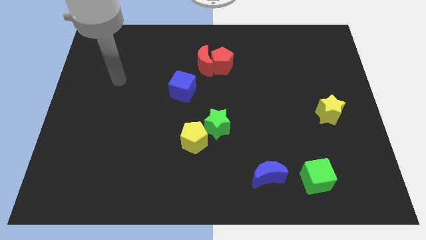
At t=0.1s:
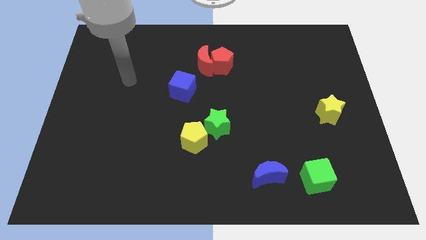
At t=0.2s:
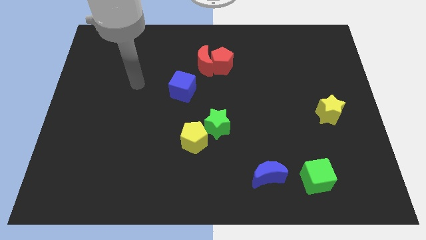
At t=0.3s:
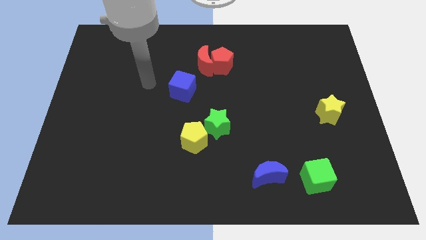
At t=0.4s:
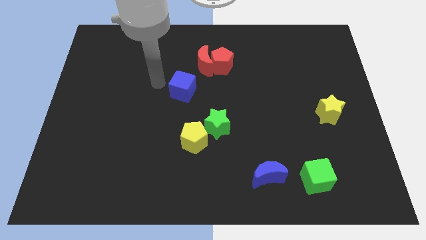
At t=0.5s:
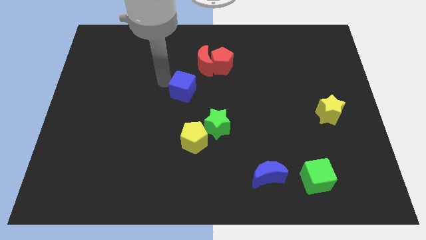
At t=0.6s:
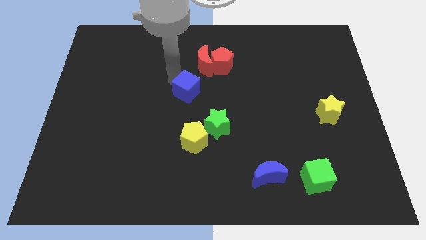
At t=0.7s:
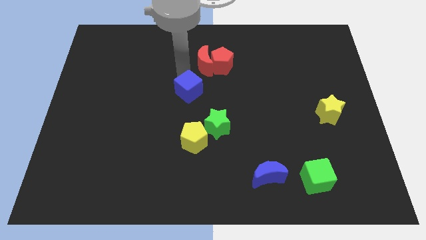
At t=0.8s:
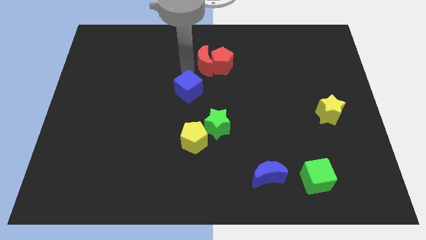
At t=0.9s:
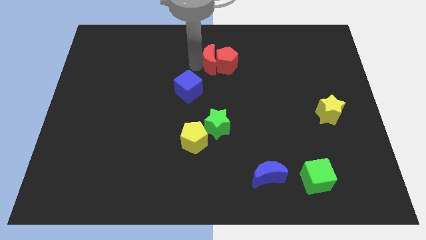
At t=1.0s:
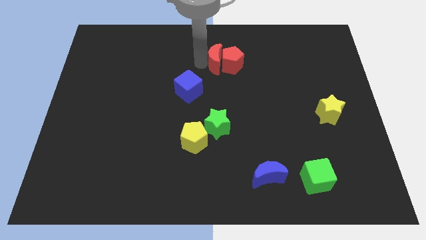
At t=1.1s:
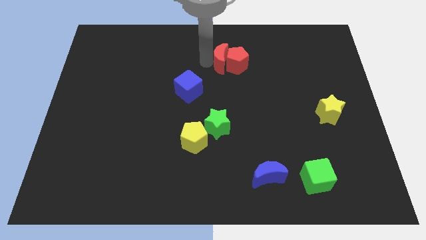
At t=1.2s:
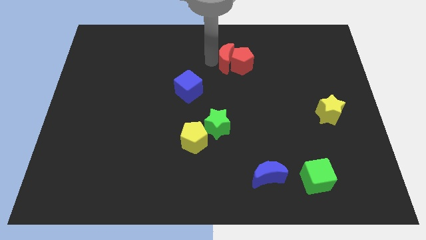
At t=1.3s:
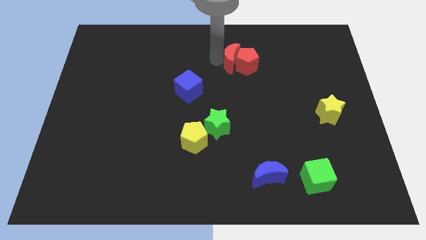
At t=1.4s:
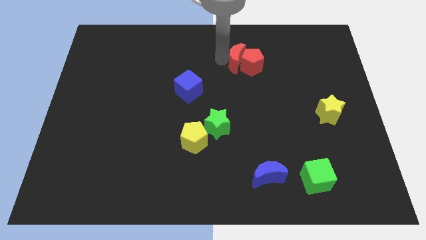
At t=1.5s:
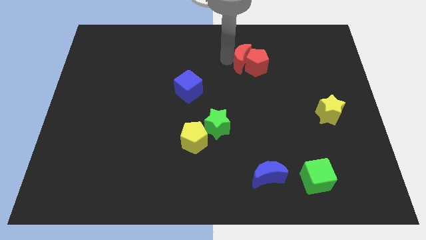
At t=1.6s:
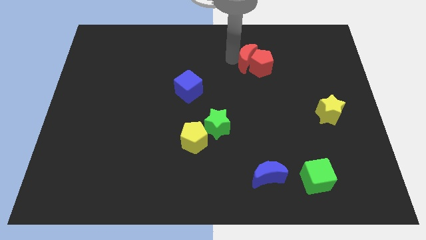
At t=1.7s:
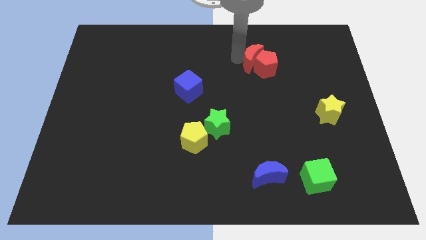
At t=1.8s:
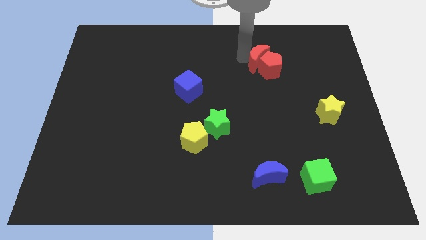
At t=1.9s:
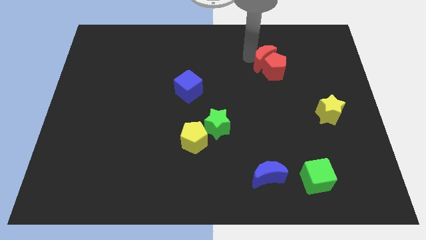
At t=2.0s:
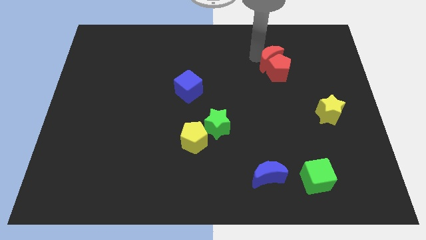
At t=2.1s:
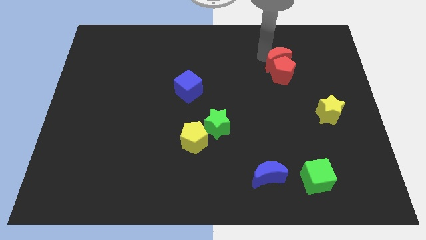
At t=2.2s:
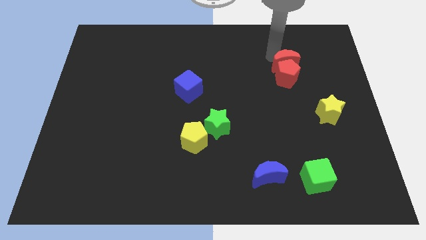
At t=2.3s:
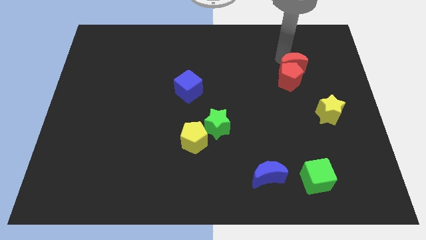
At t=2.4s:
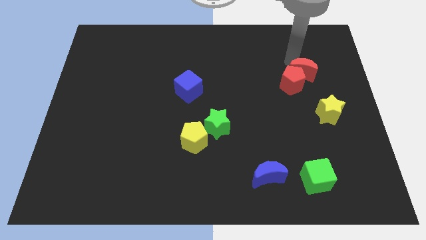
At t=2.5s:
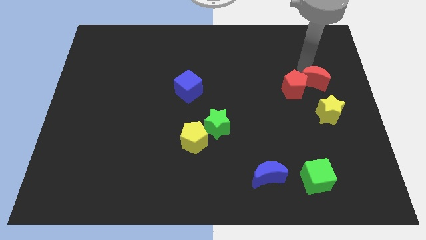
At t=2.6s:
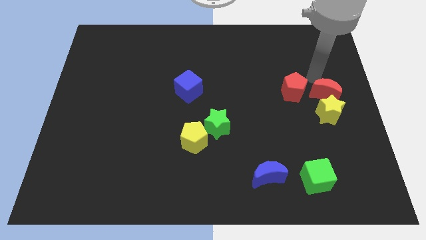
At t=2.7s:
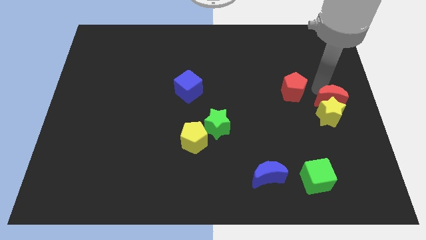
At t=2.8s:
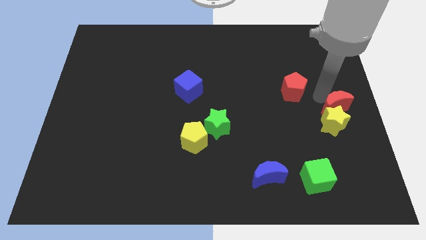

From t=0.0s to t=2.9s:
separate the red pentagon from the red moon

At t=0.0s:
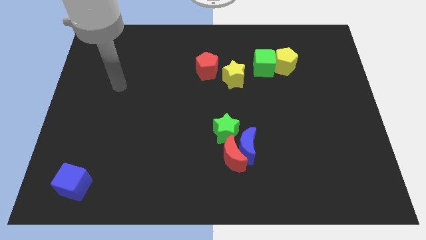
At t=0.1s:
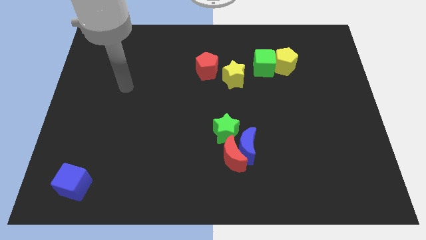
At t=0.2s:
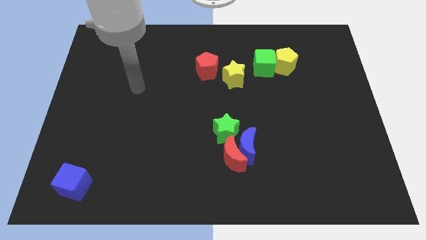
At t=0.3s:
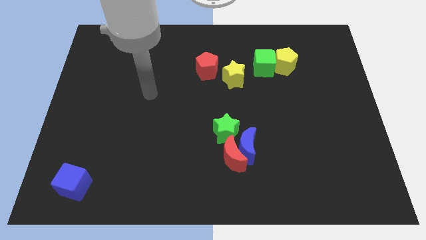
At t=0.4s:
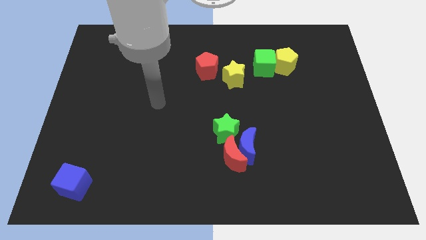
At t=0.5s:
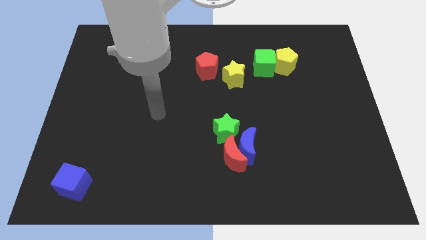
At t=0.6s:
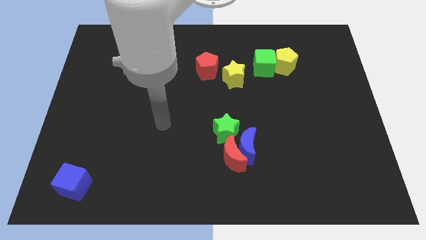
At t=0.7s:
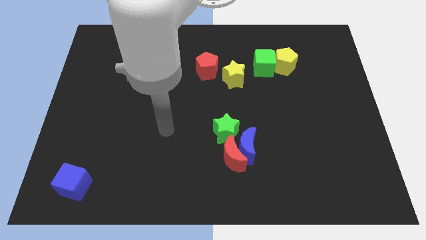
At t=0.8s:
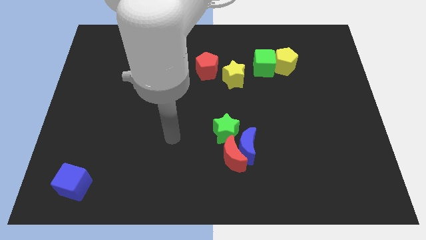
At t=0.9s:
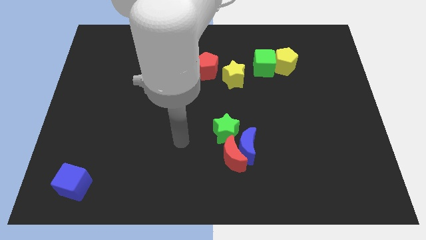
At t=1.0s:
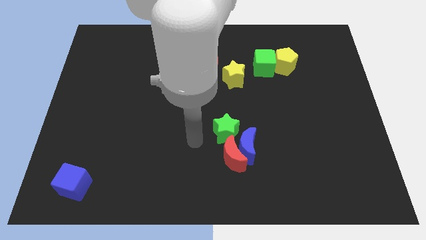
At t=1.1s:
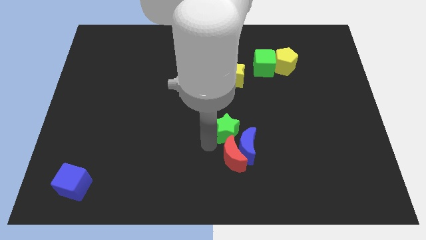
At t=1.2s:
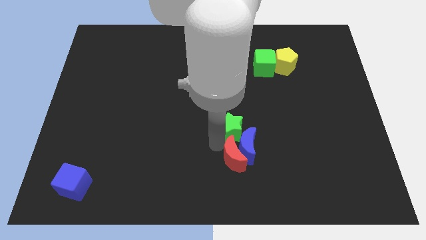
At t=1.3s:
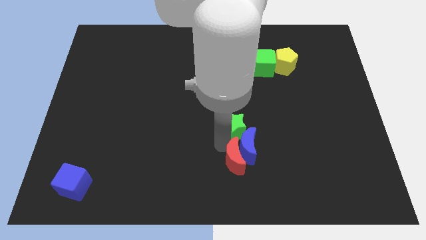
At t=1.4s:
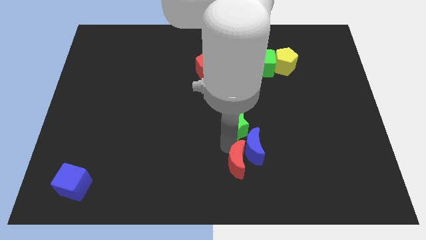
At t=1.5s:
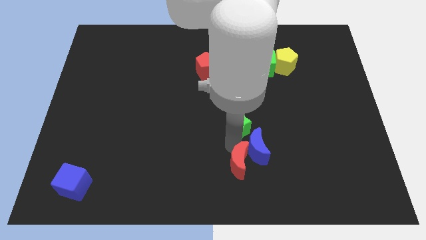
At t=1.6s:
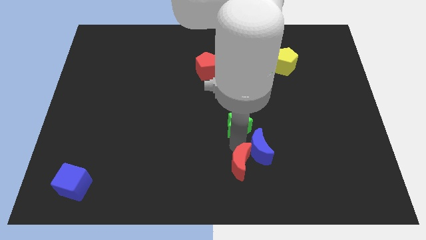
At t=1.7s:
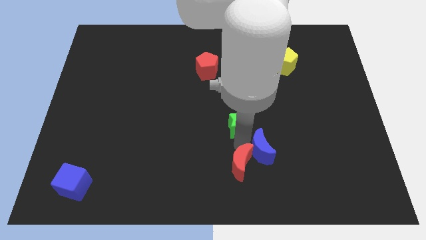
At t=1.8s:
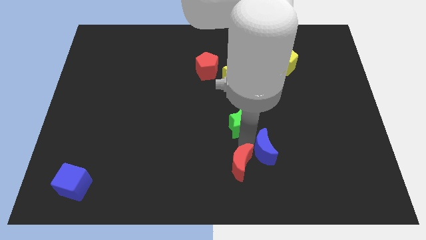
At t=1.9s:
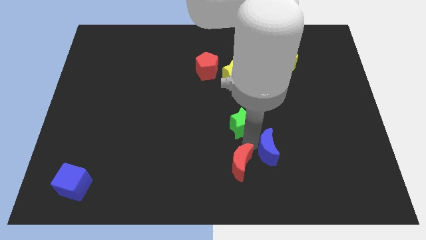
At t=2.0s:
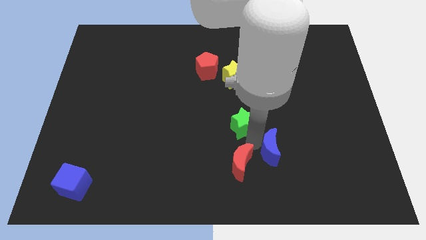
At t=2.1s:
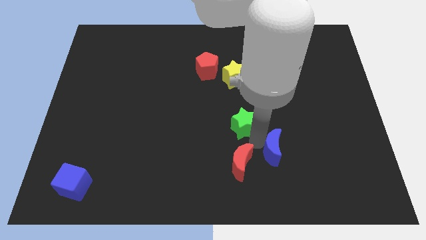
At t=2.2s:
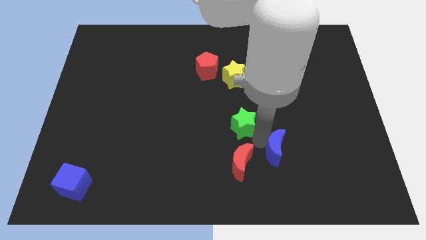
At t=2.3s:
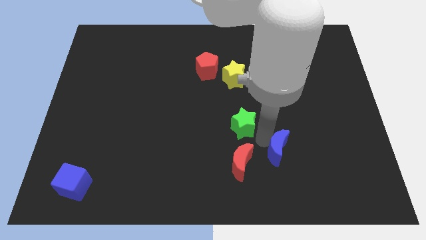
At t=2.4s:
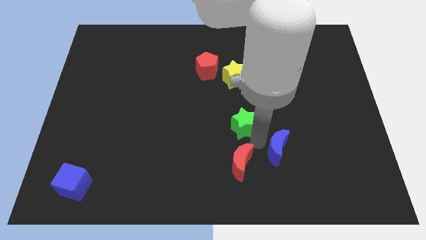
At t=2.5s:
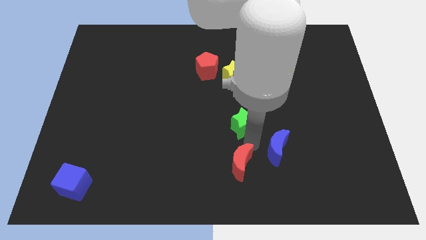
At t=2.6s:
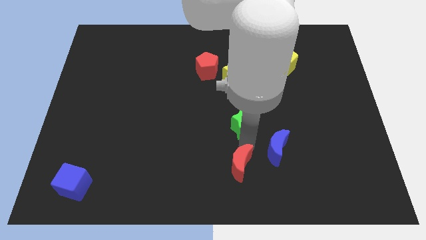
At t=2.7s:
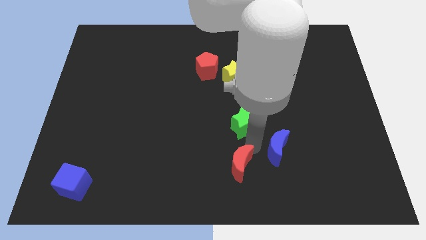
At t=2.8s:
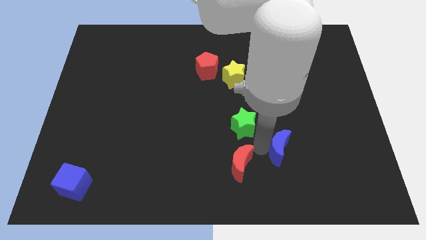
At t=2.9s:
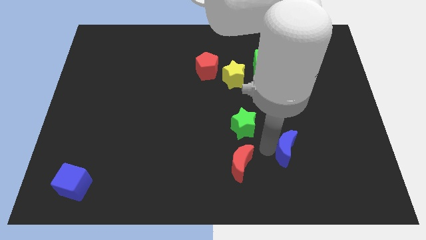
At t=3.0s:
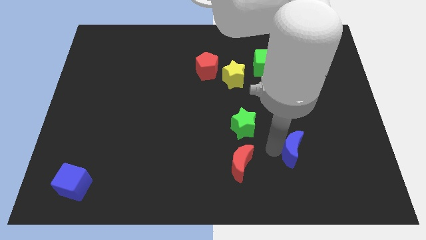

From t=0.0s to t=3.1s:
move the blue moon away from the red moon and green star

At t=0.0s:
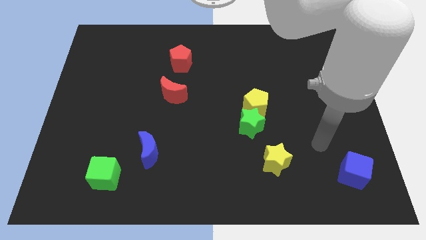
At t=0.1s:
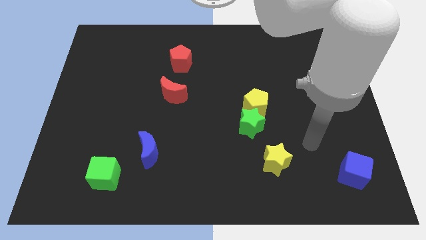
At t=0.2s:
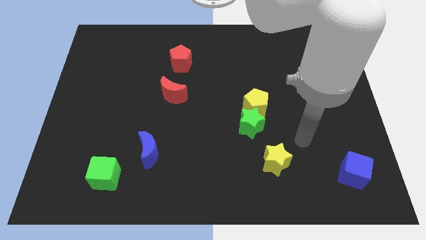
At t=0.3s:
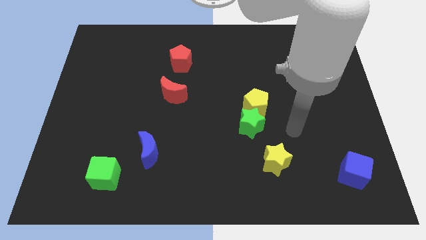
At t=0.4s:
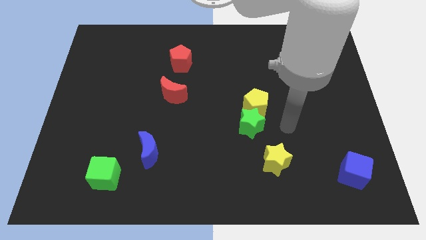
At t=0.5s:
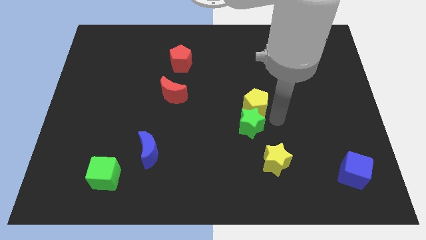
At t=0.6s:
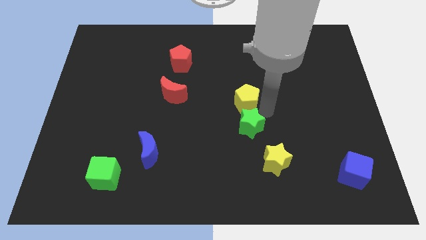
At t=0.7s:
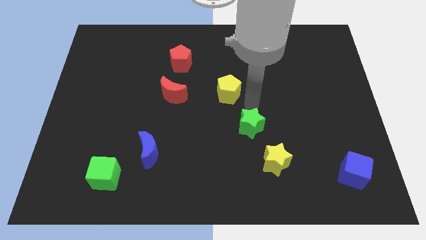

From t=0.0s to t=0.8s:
pull the green star apart from the yellow pentagon

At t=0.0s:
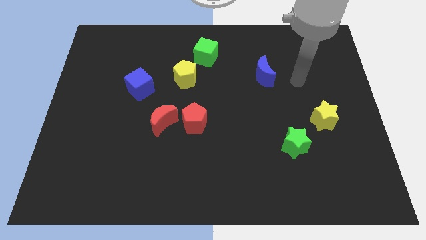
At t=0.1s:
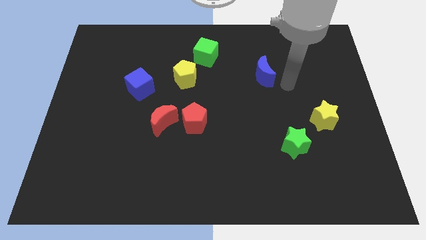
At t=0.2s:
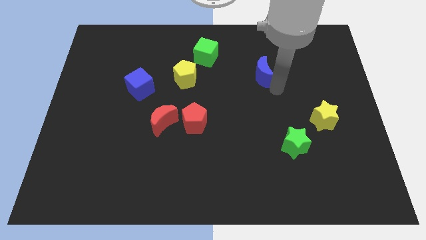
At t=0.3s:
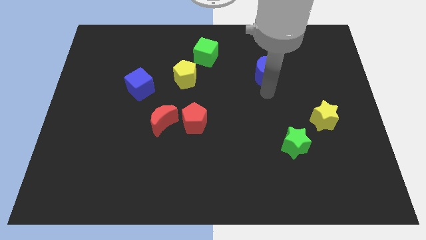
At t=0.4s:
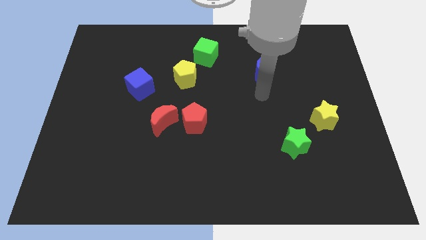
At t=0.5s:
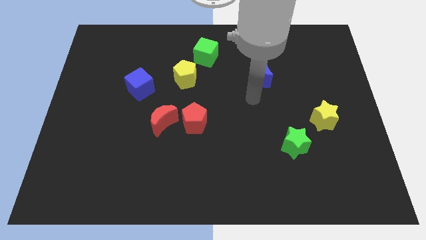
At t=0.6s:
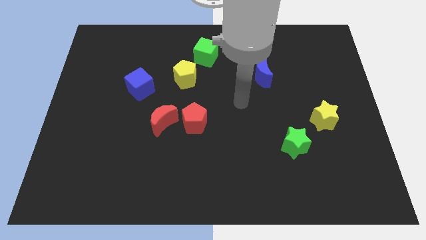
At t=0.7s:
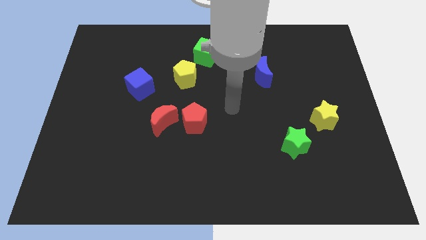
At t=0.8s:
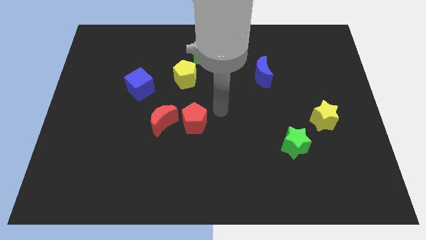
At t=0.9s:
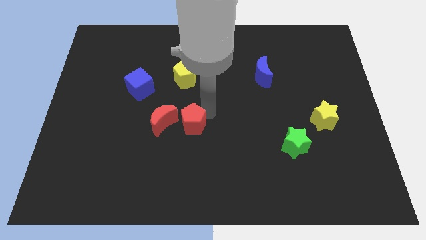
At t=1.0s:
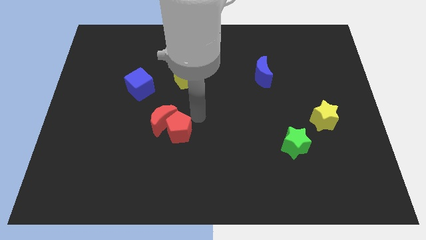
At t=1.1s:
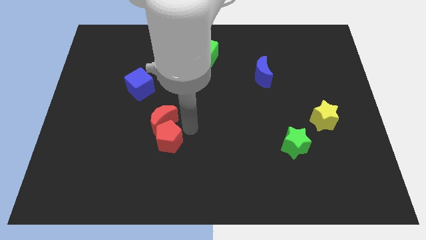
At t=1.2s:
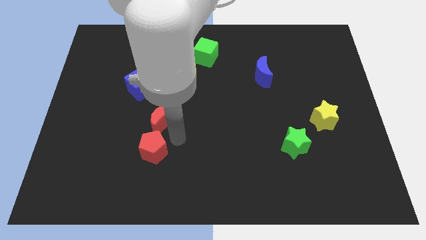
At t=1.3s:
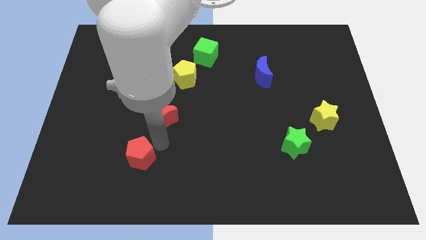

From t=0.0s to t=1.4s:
move the red moon away from the red pentagon

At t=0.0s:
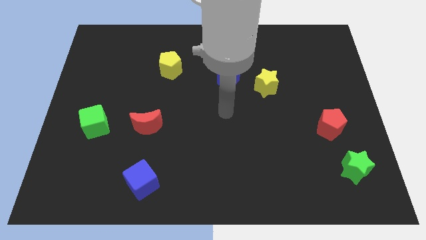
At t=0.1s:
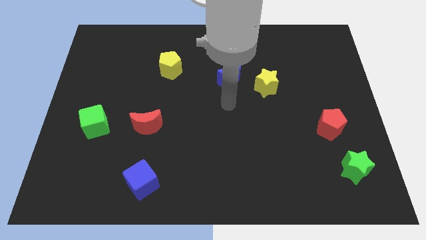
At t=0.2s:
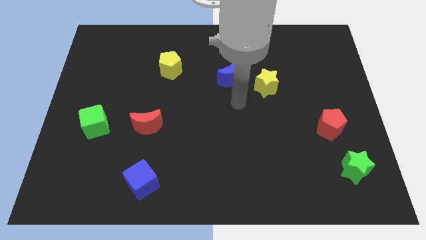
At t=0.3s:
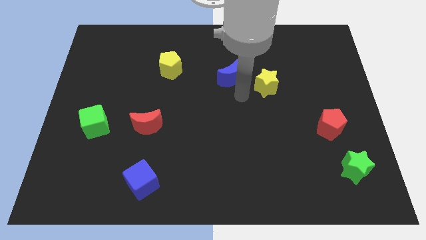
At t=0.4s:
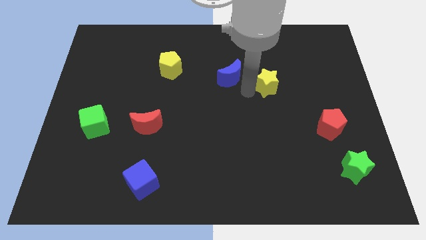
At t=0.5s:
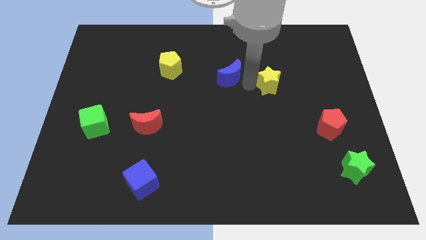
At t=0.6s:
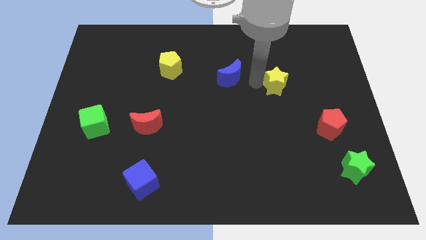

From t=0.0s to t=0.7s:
move the blue moon away from the yellow star
